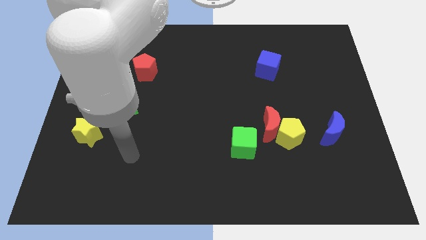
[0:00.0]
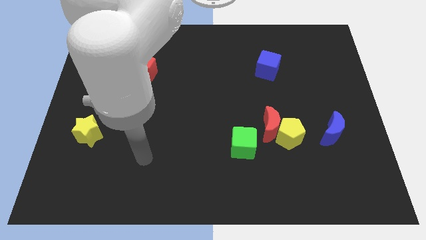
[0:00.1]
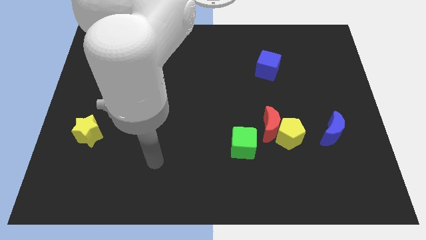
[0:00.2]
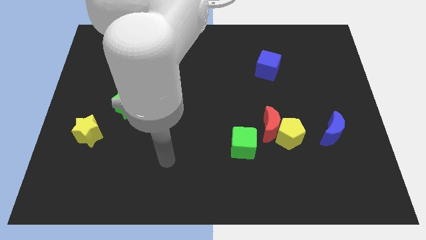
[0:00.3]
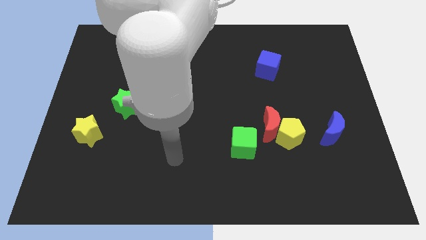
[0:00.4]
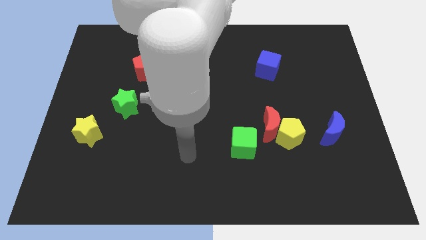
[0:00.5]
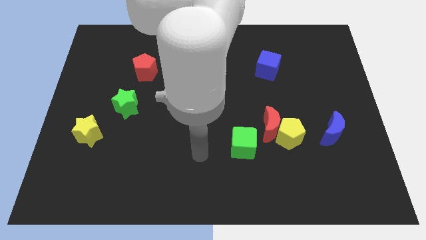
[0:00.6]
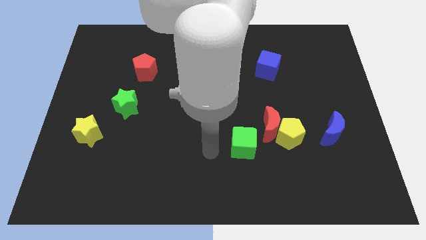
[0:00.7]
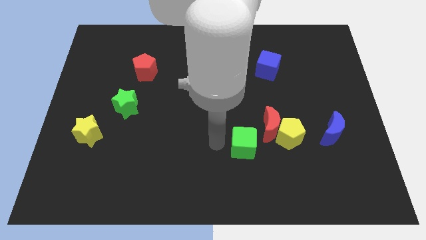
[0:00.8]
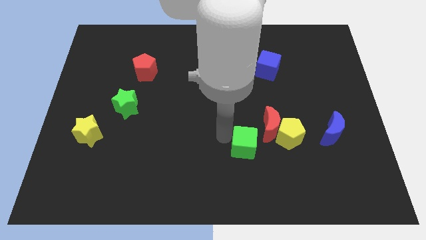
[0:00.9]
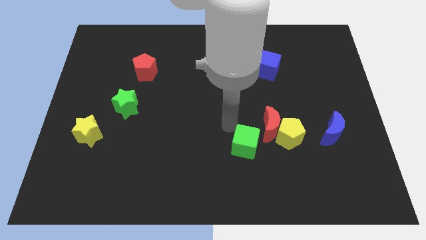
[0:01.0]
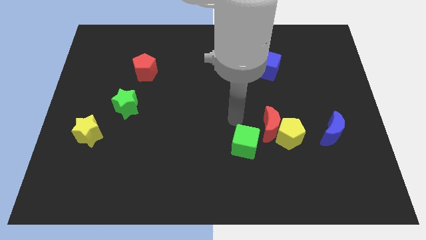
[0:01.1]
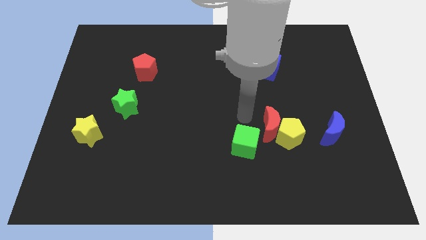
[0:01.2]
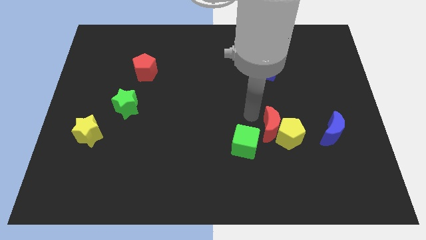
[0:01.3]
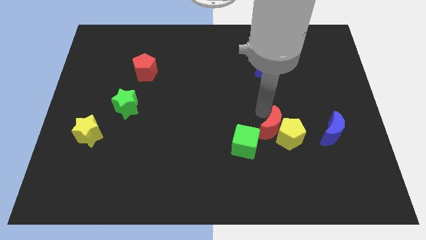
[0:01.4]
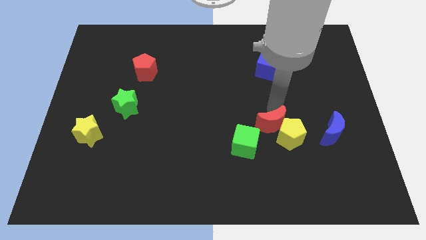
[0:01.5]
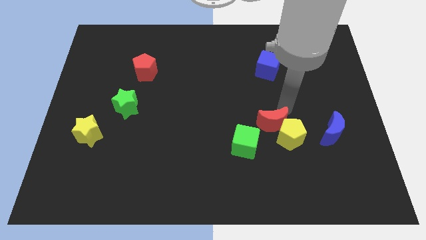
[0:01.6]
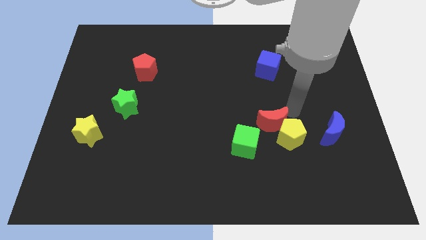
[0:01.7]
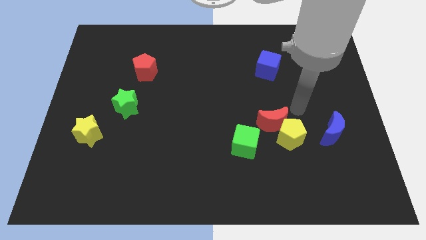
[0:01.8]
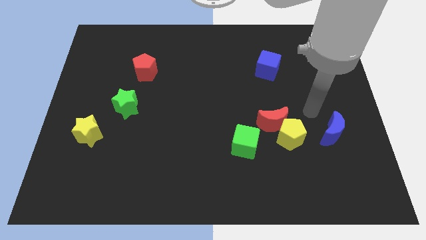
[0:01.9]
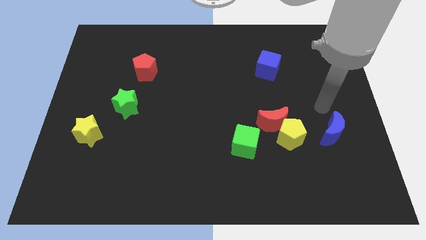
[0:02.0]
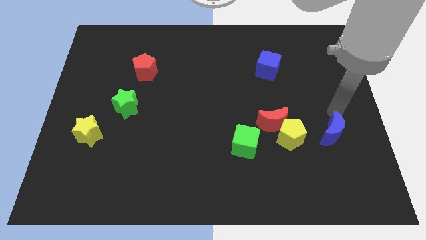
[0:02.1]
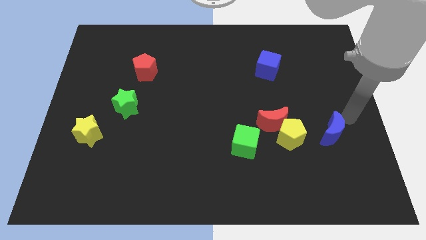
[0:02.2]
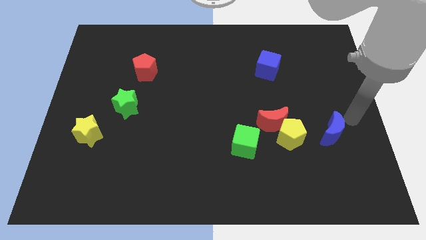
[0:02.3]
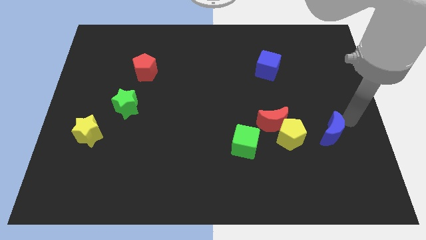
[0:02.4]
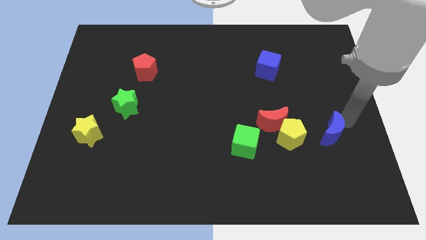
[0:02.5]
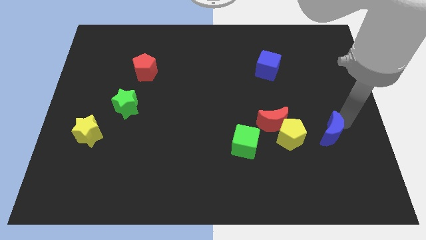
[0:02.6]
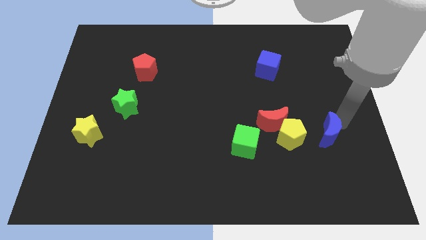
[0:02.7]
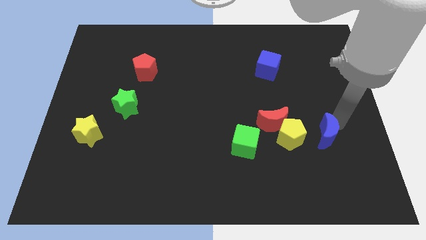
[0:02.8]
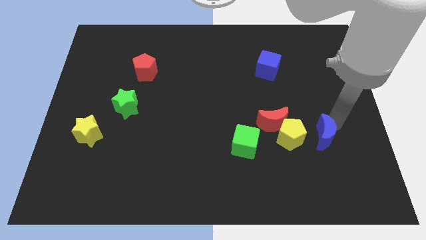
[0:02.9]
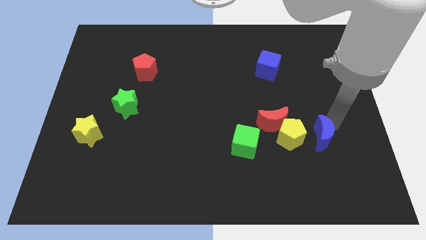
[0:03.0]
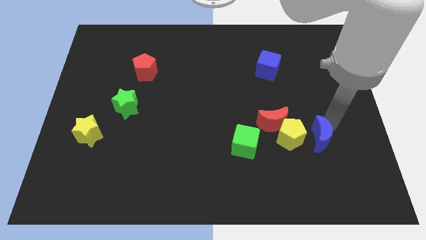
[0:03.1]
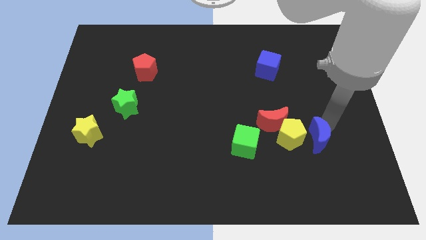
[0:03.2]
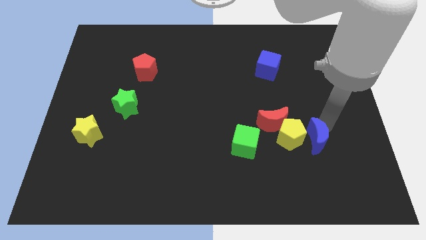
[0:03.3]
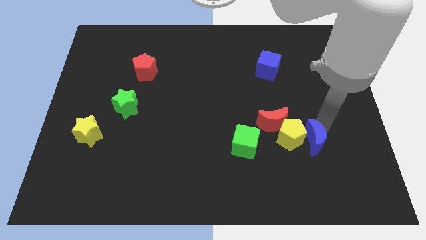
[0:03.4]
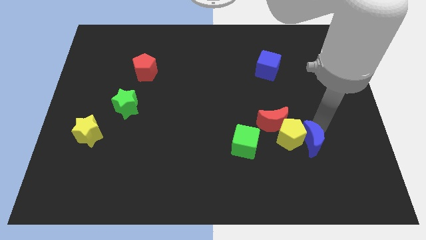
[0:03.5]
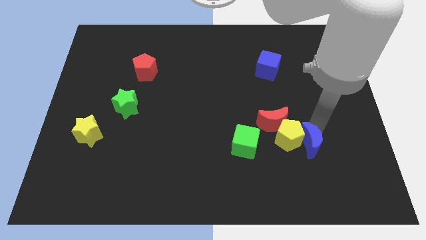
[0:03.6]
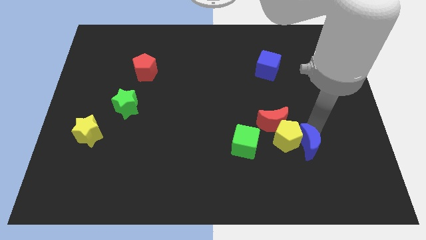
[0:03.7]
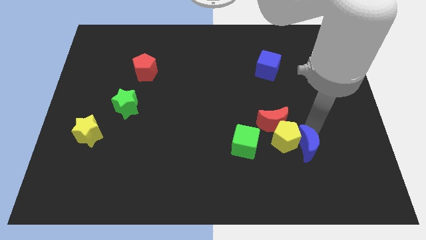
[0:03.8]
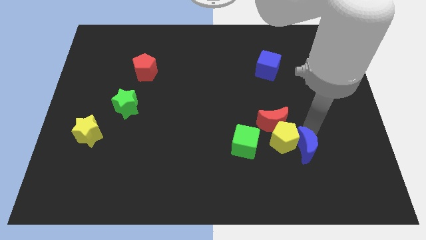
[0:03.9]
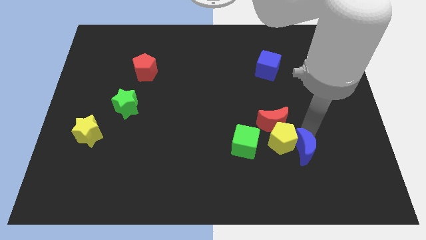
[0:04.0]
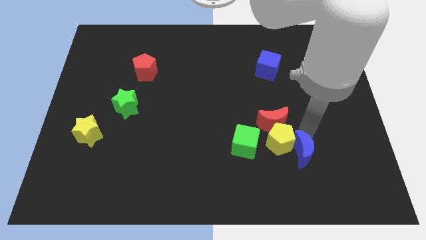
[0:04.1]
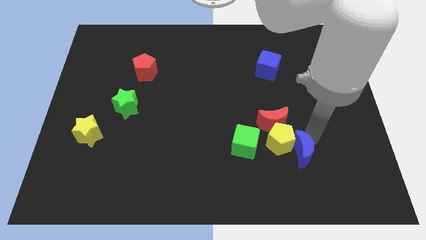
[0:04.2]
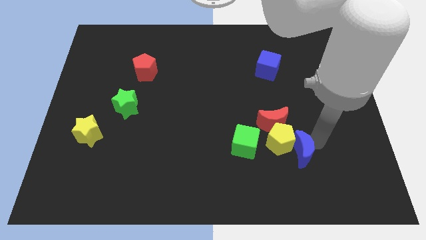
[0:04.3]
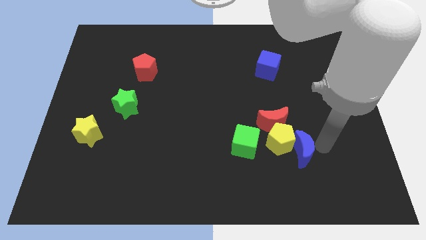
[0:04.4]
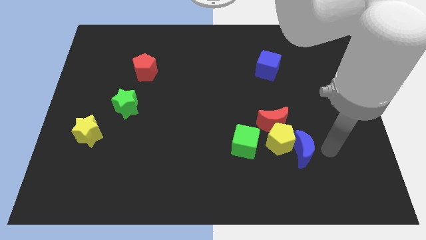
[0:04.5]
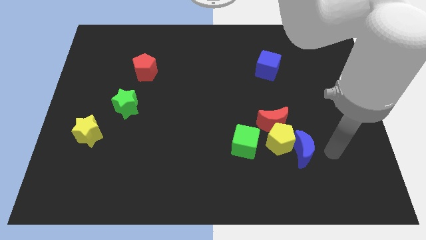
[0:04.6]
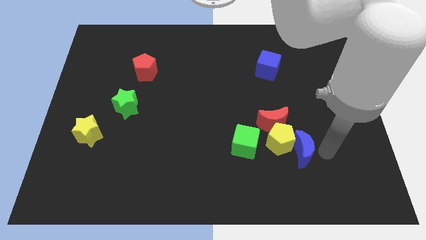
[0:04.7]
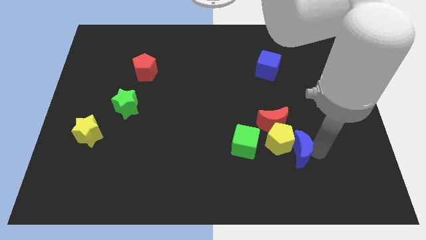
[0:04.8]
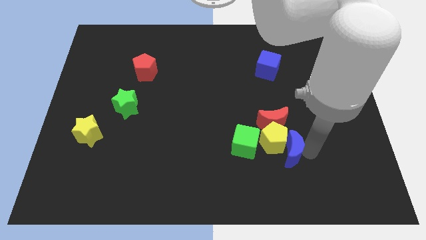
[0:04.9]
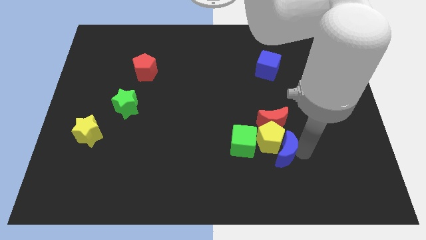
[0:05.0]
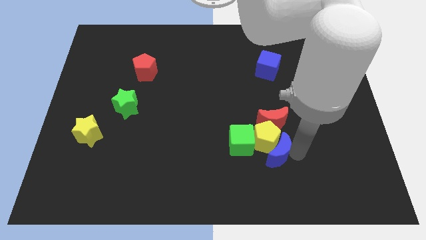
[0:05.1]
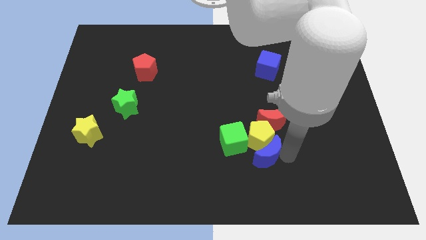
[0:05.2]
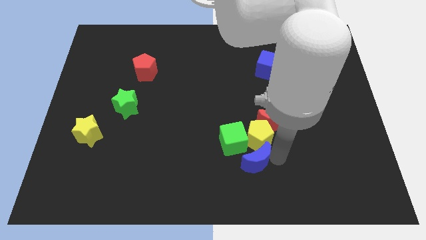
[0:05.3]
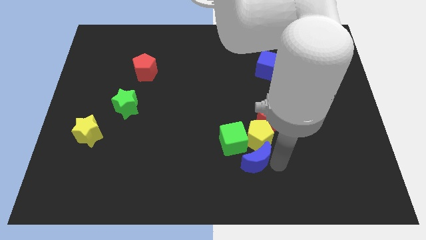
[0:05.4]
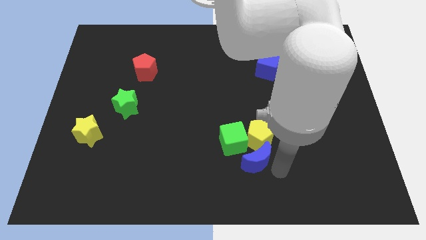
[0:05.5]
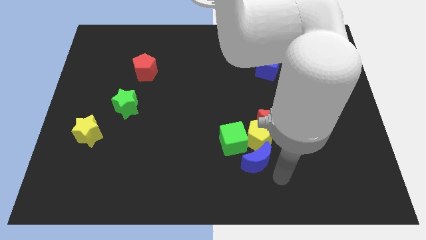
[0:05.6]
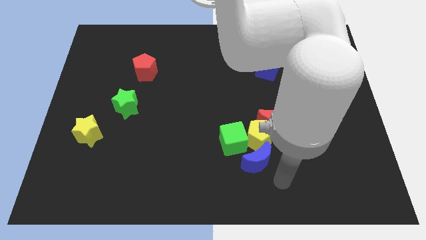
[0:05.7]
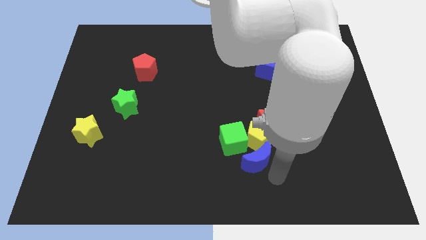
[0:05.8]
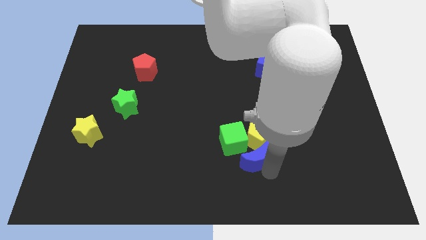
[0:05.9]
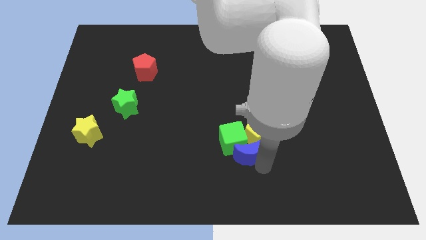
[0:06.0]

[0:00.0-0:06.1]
slide the blue moon close to the green cube
